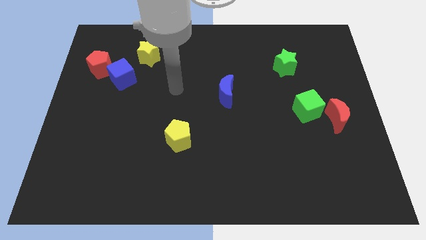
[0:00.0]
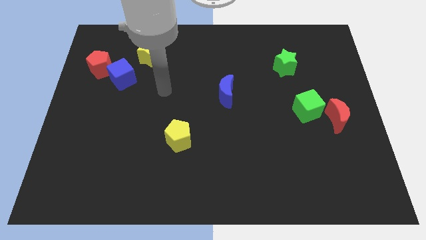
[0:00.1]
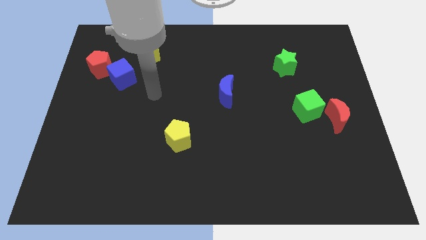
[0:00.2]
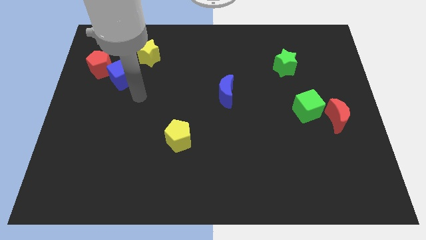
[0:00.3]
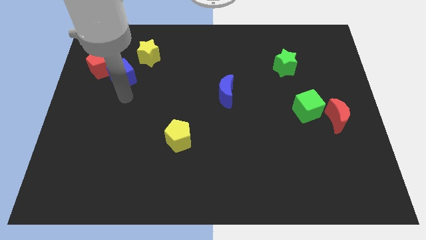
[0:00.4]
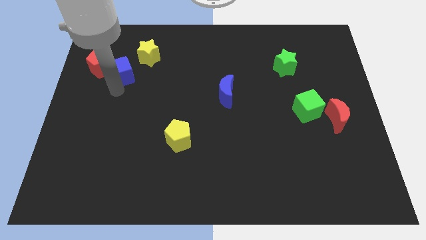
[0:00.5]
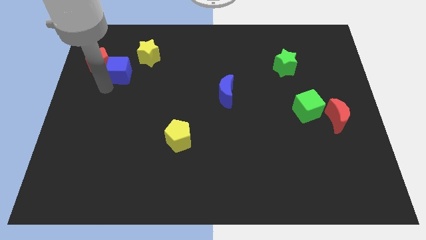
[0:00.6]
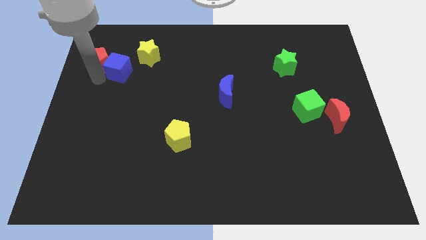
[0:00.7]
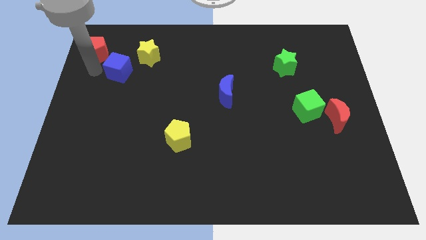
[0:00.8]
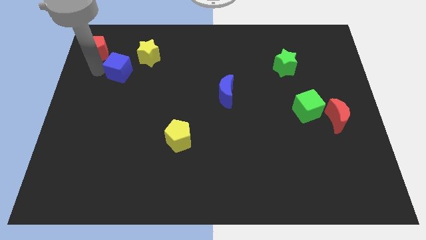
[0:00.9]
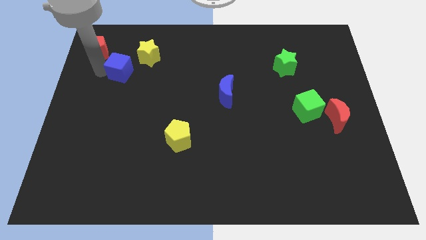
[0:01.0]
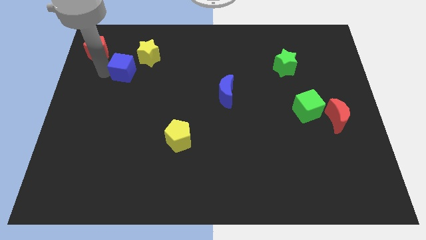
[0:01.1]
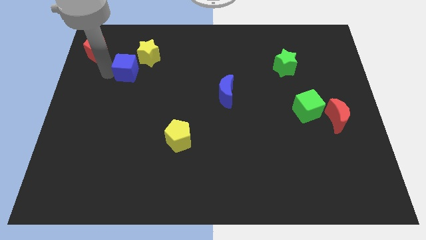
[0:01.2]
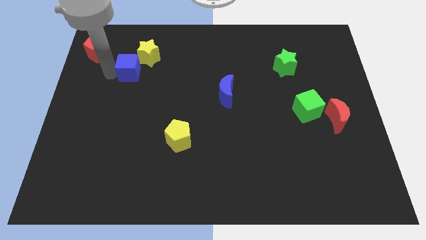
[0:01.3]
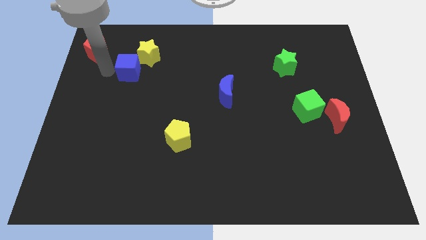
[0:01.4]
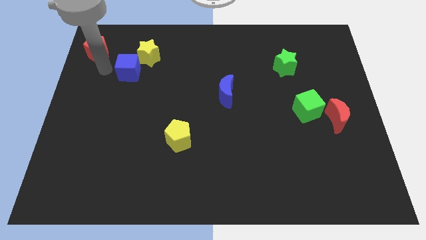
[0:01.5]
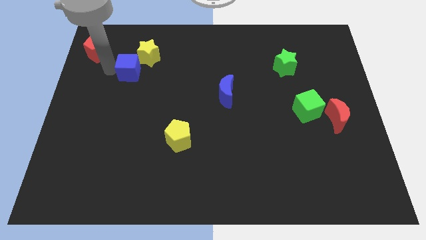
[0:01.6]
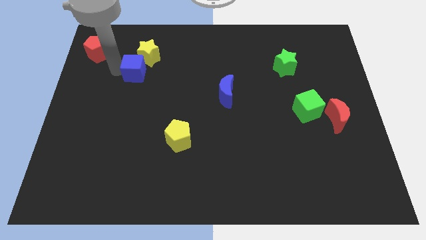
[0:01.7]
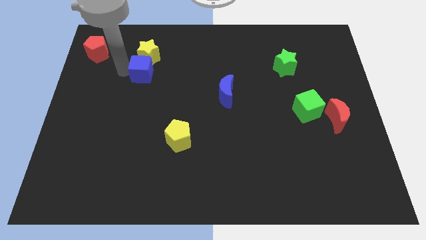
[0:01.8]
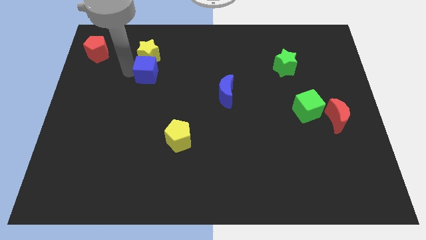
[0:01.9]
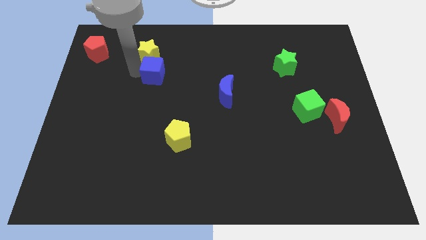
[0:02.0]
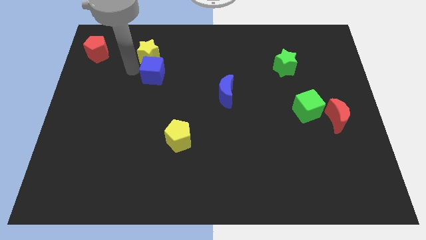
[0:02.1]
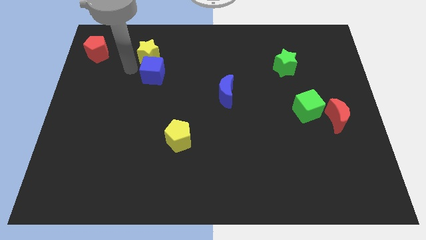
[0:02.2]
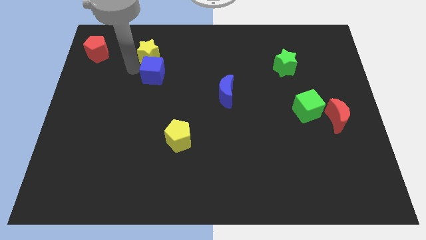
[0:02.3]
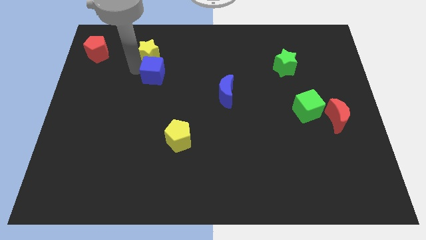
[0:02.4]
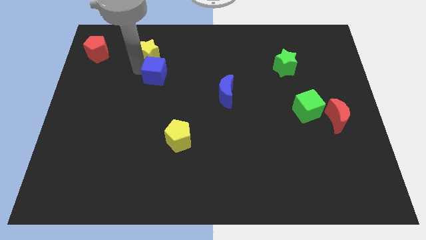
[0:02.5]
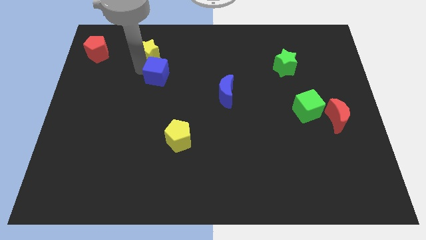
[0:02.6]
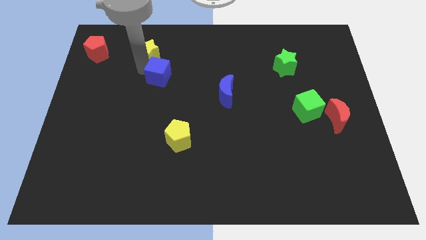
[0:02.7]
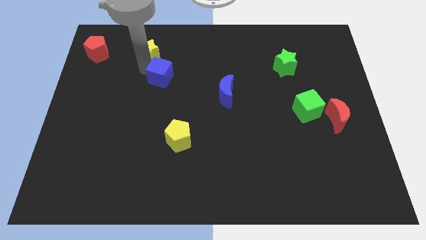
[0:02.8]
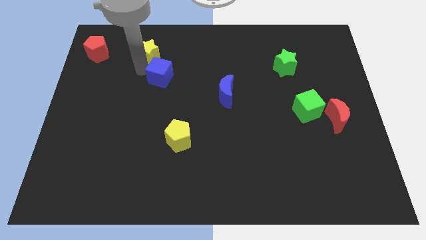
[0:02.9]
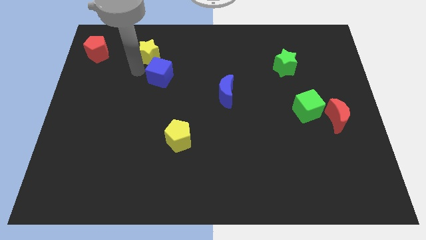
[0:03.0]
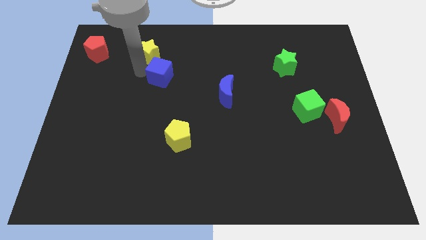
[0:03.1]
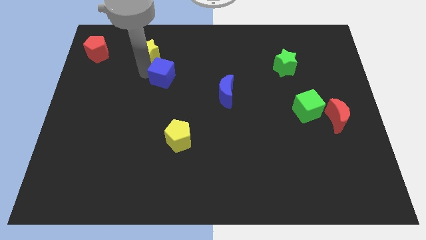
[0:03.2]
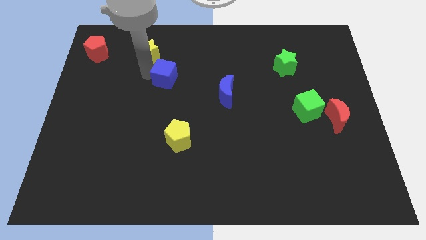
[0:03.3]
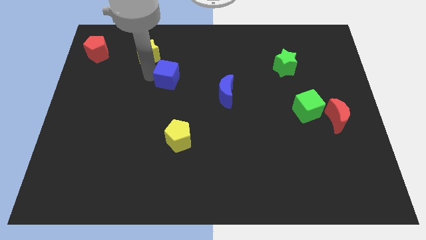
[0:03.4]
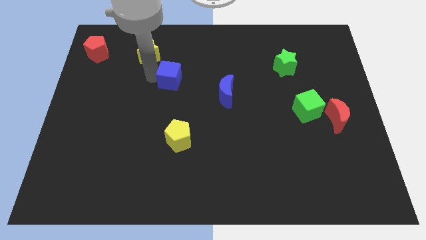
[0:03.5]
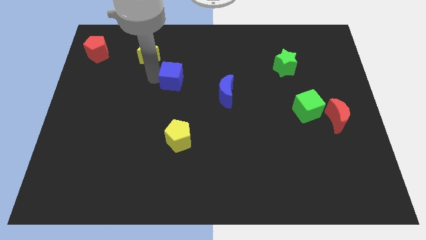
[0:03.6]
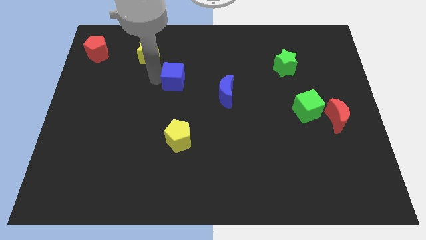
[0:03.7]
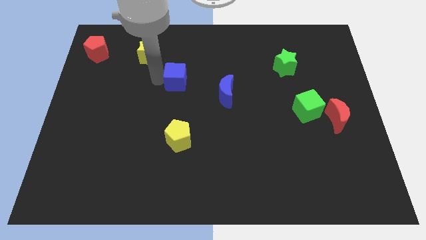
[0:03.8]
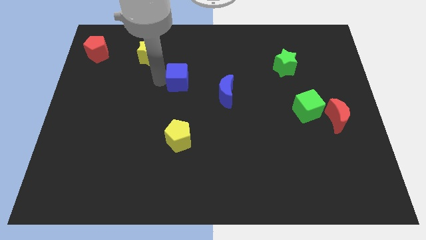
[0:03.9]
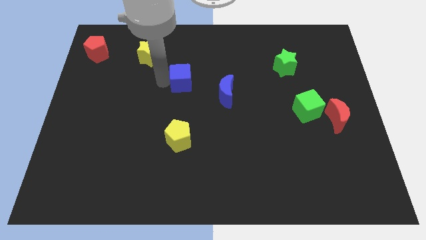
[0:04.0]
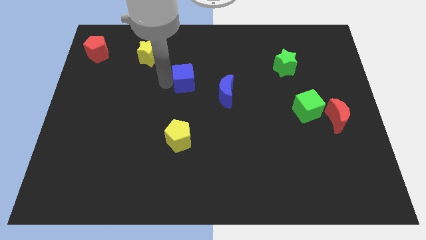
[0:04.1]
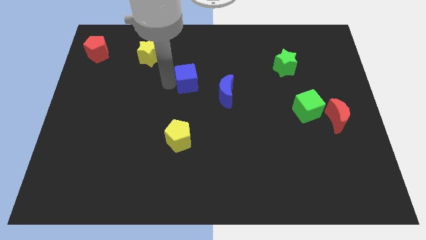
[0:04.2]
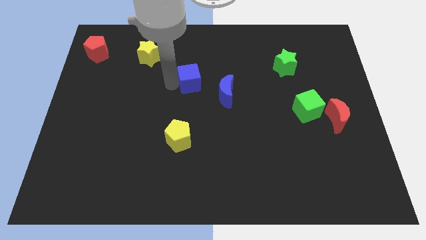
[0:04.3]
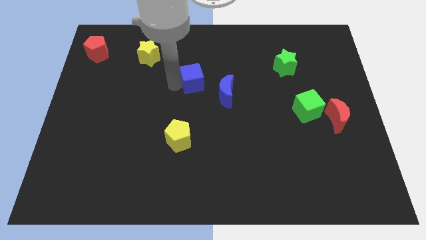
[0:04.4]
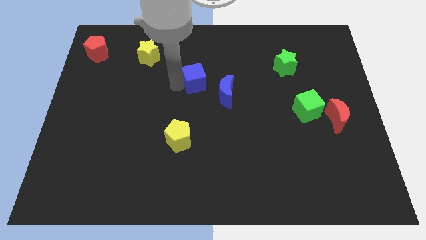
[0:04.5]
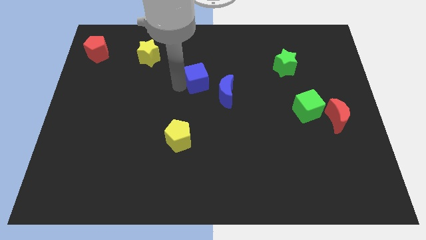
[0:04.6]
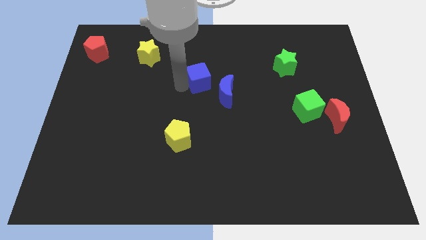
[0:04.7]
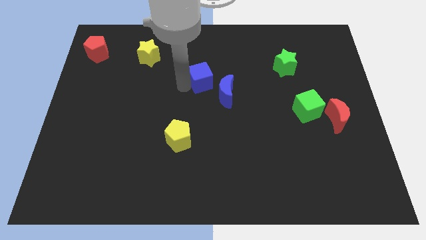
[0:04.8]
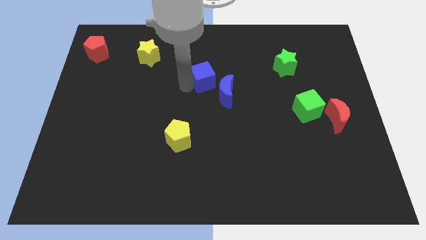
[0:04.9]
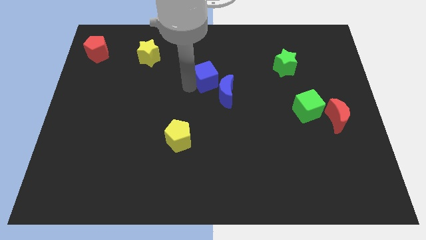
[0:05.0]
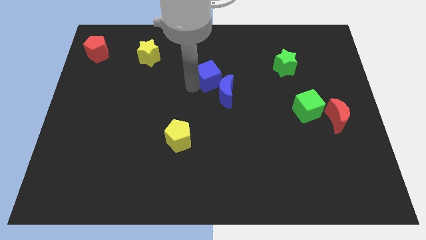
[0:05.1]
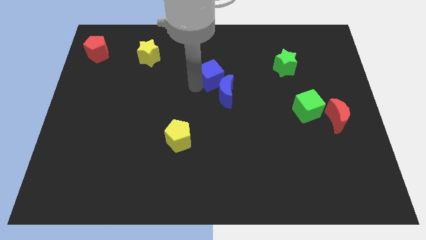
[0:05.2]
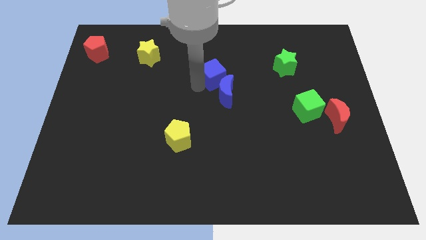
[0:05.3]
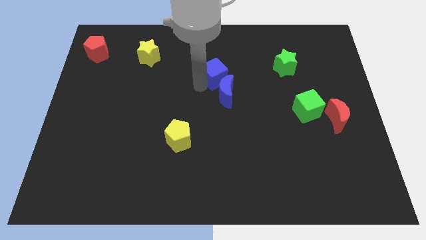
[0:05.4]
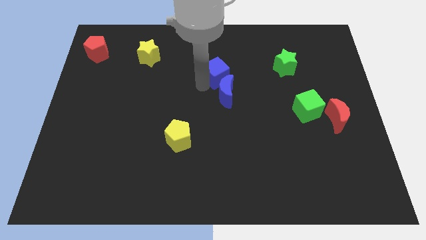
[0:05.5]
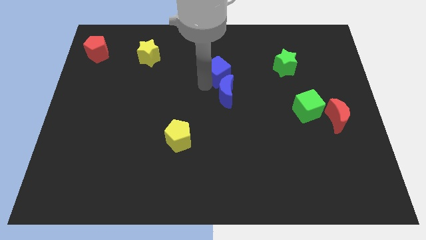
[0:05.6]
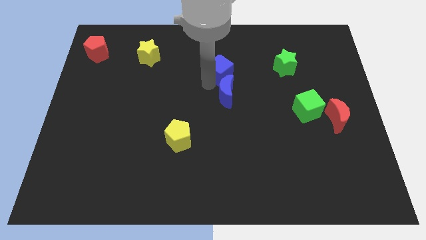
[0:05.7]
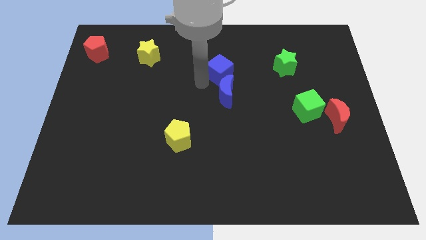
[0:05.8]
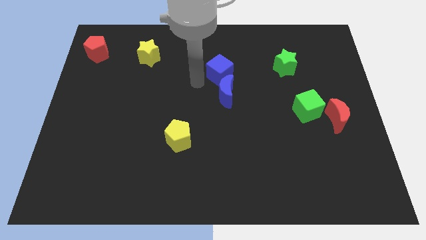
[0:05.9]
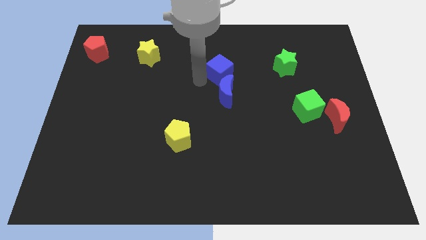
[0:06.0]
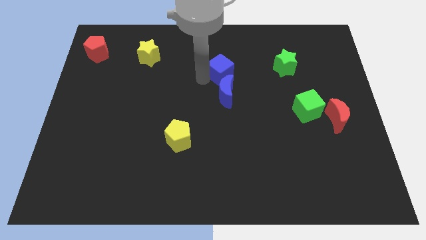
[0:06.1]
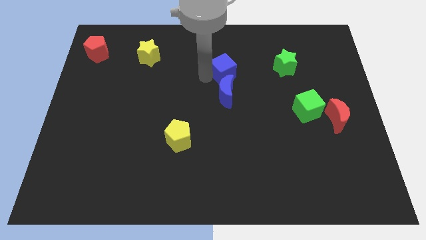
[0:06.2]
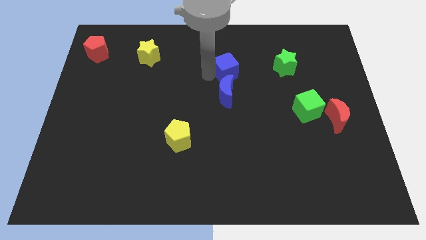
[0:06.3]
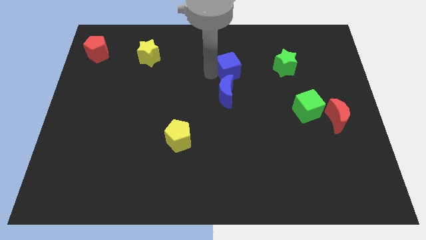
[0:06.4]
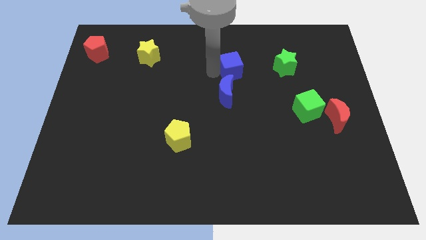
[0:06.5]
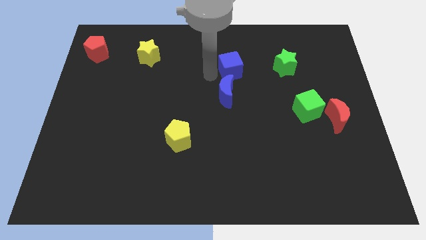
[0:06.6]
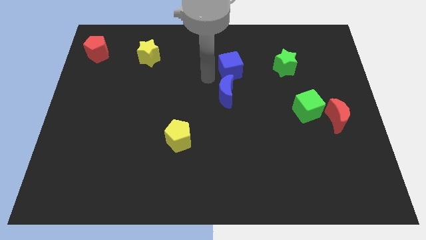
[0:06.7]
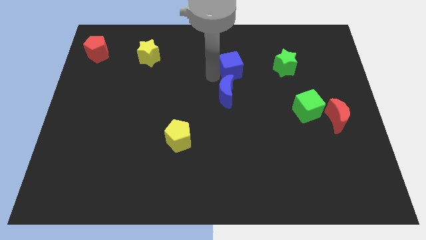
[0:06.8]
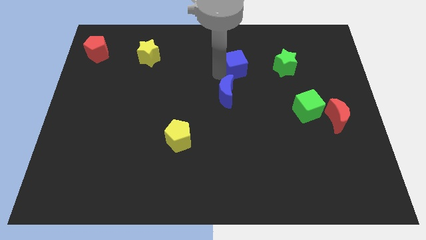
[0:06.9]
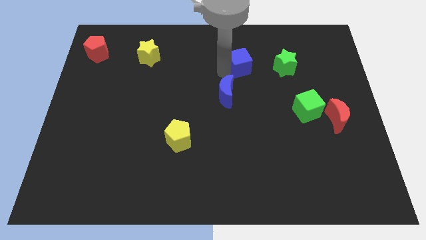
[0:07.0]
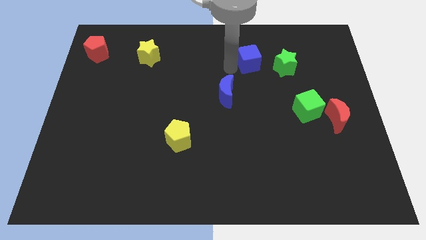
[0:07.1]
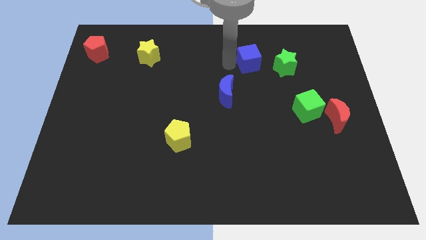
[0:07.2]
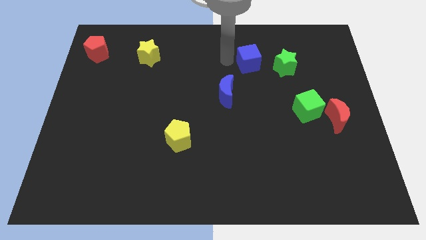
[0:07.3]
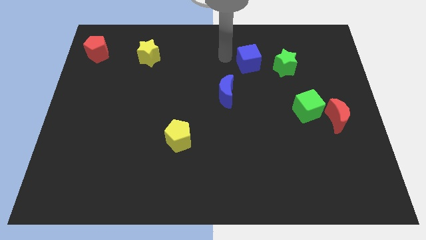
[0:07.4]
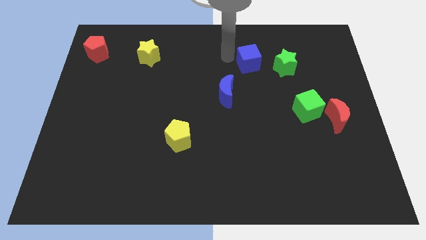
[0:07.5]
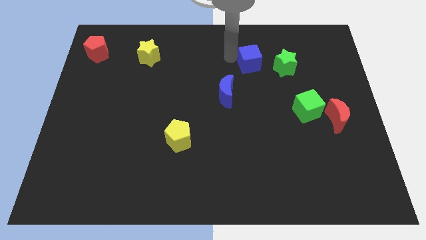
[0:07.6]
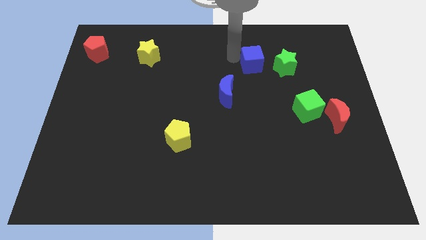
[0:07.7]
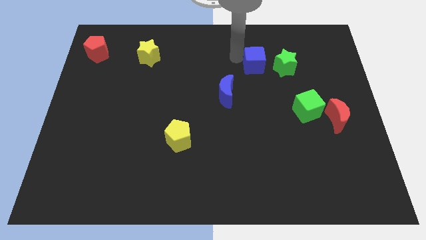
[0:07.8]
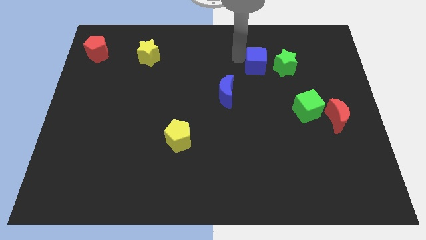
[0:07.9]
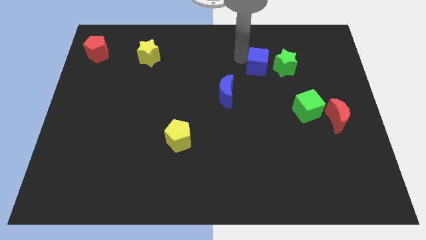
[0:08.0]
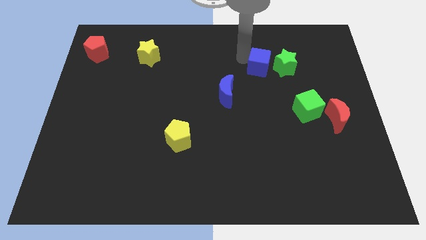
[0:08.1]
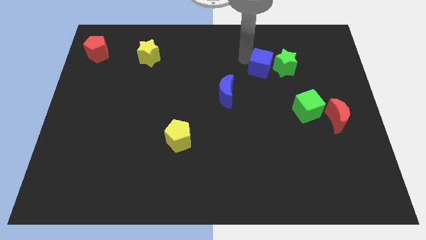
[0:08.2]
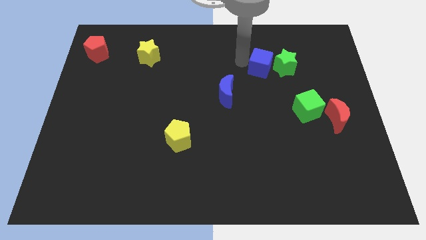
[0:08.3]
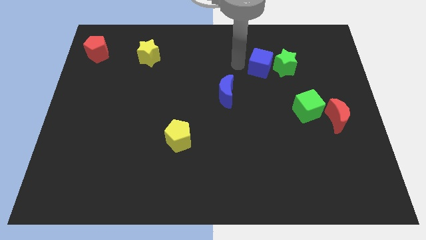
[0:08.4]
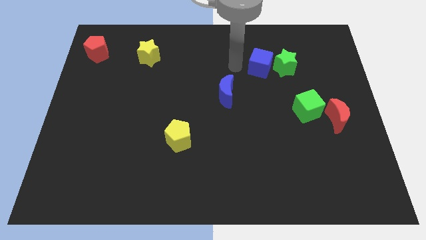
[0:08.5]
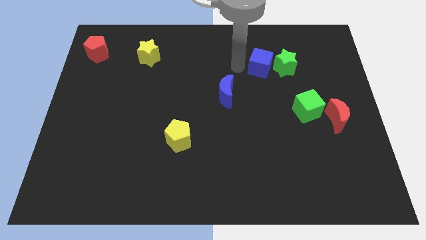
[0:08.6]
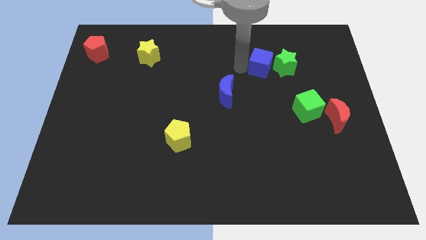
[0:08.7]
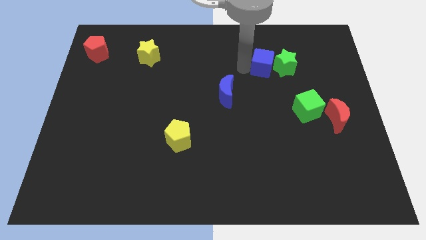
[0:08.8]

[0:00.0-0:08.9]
put the blue cube next to the green star
